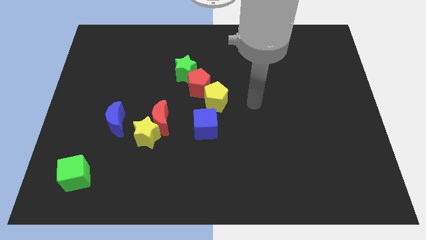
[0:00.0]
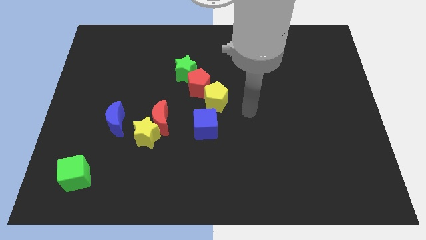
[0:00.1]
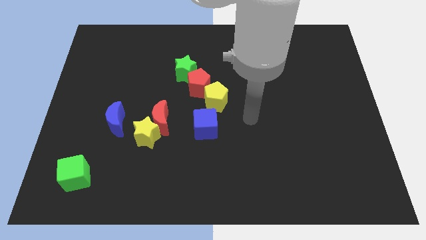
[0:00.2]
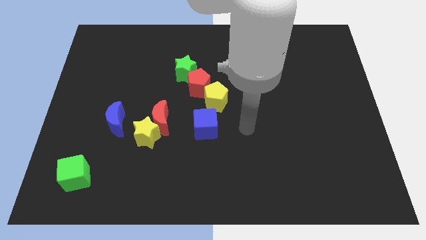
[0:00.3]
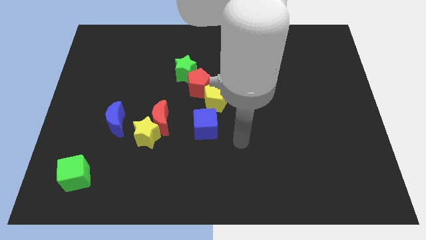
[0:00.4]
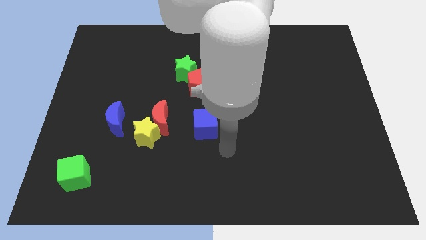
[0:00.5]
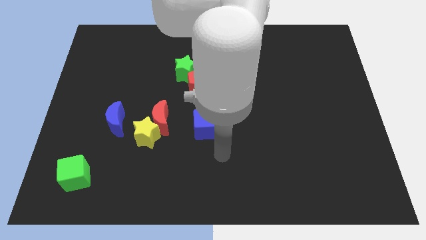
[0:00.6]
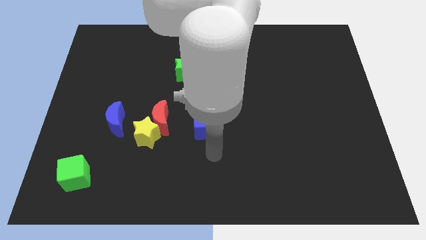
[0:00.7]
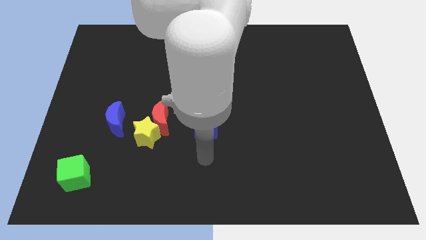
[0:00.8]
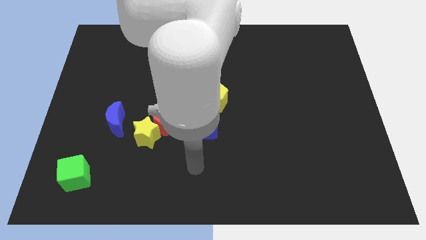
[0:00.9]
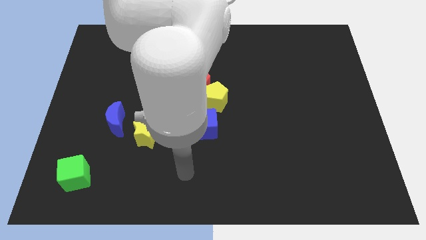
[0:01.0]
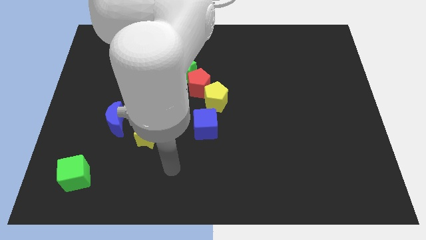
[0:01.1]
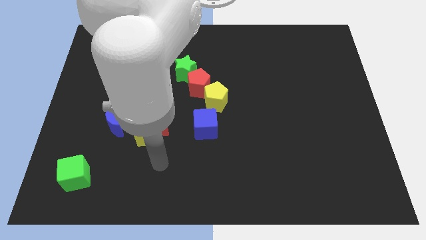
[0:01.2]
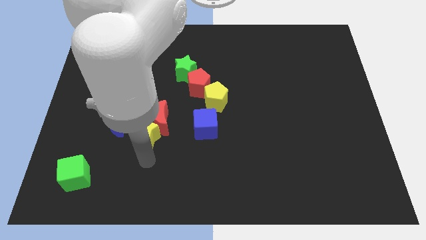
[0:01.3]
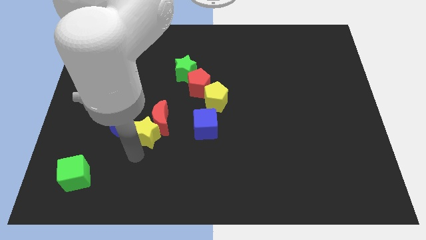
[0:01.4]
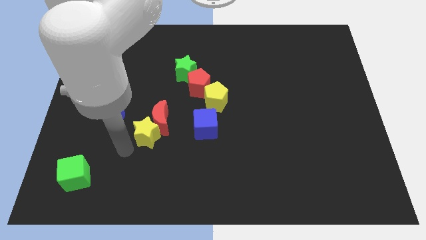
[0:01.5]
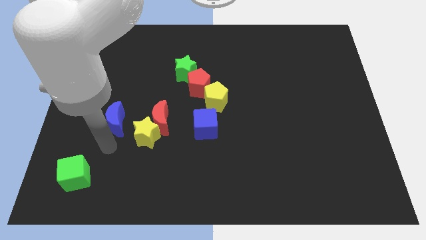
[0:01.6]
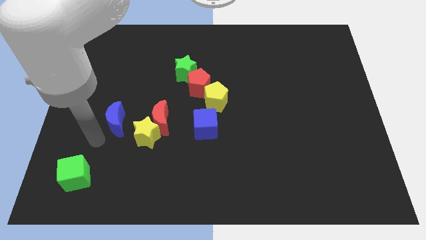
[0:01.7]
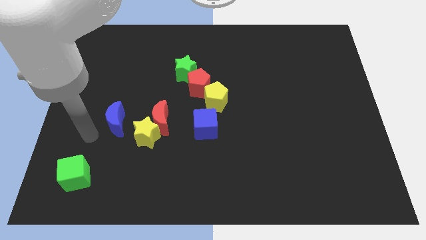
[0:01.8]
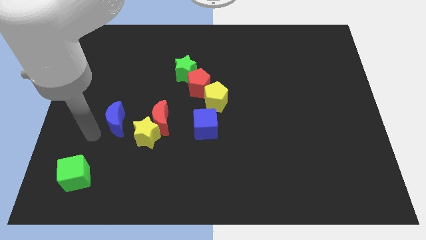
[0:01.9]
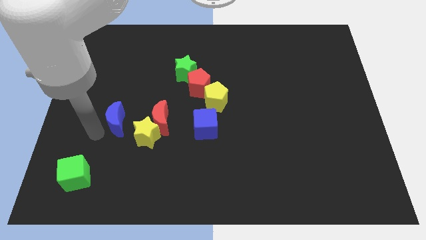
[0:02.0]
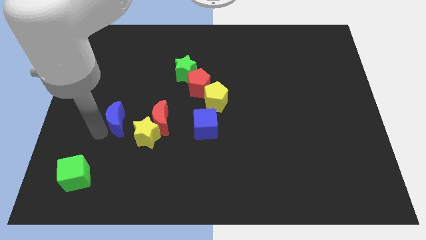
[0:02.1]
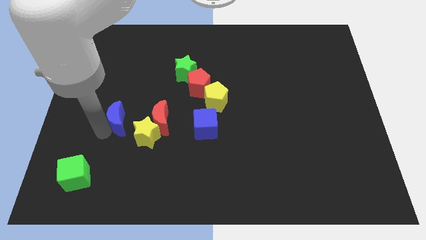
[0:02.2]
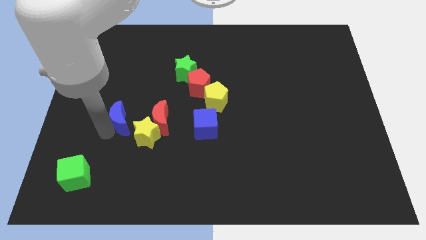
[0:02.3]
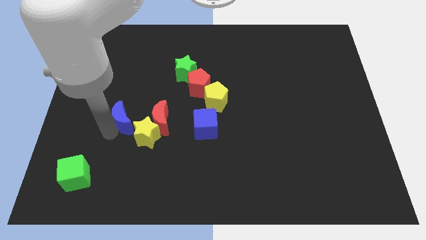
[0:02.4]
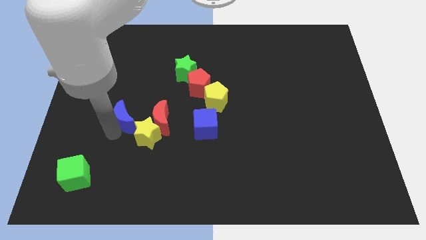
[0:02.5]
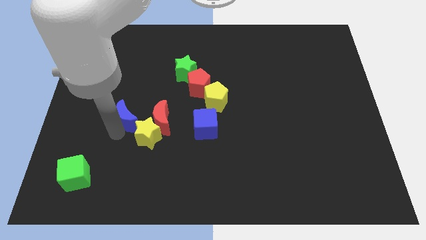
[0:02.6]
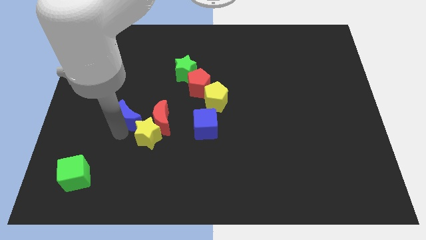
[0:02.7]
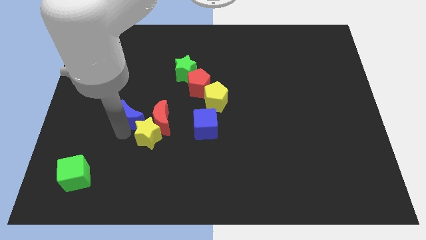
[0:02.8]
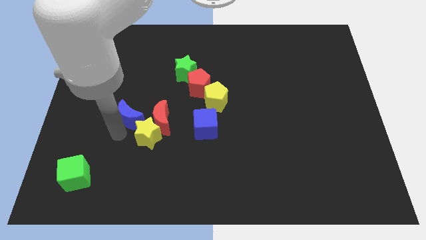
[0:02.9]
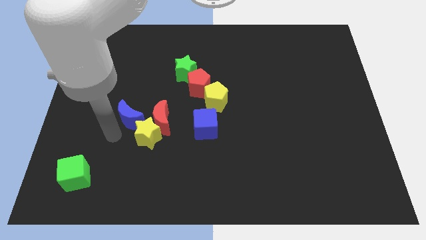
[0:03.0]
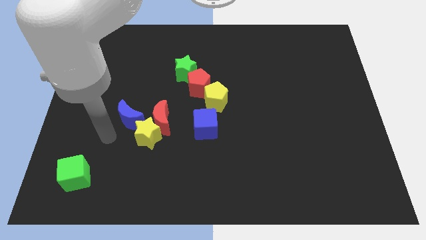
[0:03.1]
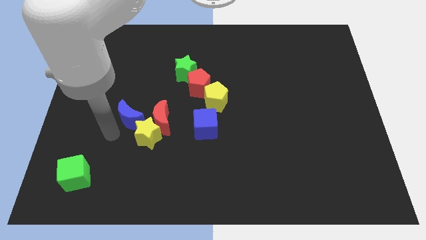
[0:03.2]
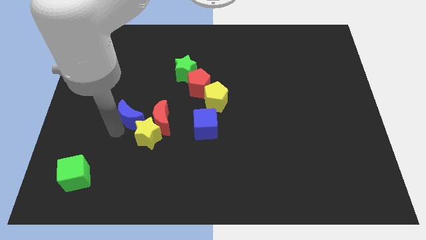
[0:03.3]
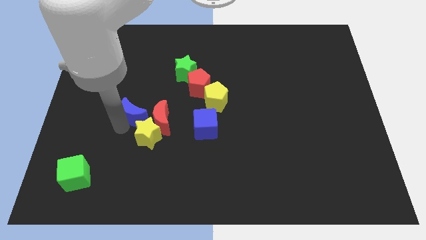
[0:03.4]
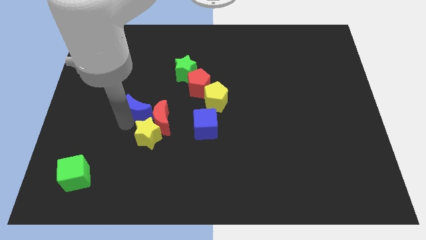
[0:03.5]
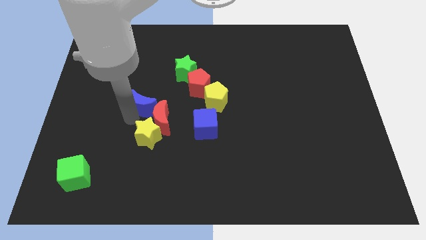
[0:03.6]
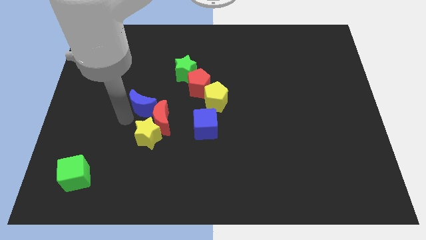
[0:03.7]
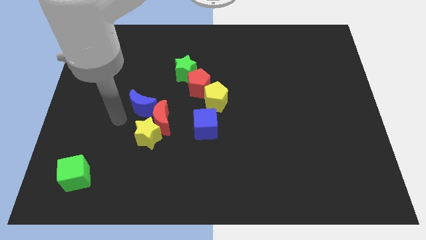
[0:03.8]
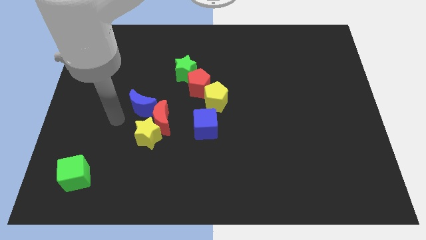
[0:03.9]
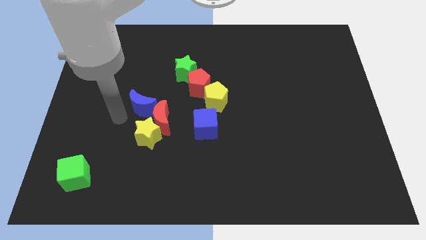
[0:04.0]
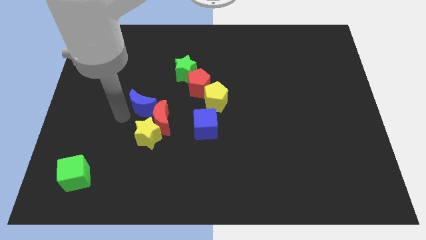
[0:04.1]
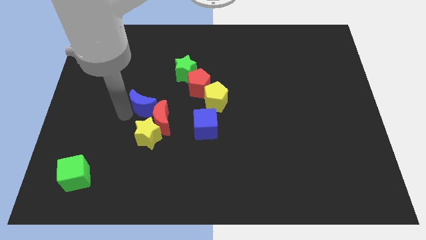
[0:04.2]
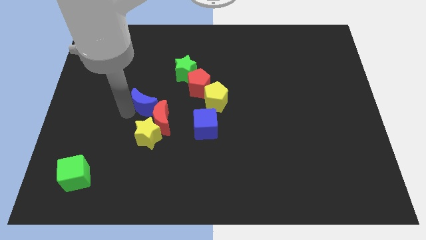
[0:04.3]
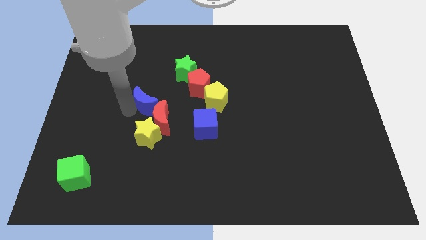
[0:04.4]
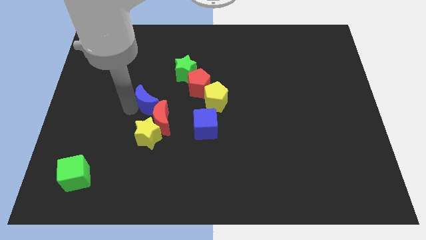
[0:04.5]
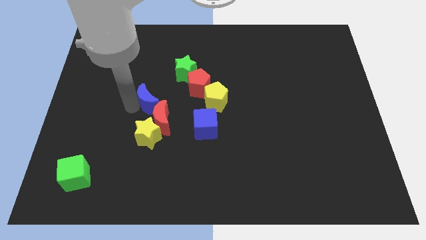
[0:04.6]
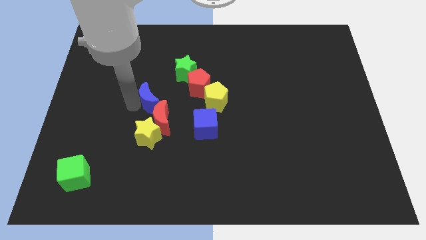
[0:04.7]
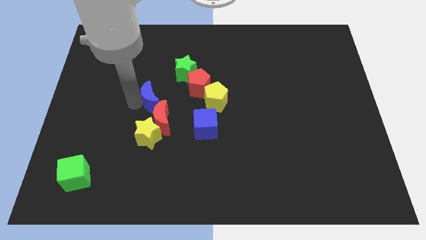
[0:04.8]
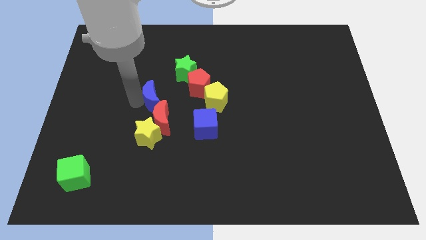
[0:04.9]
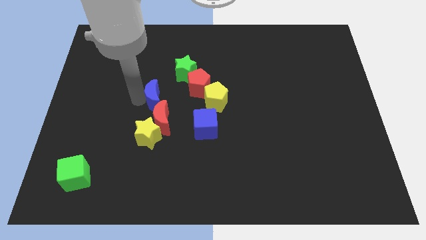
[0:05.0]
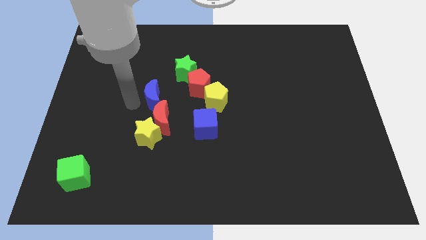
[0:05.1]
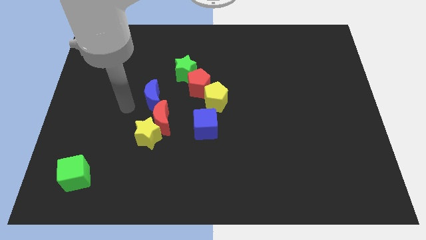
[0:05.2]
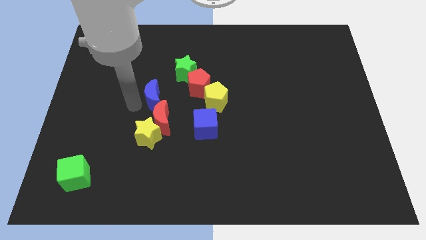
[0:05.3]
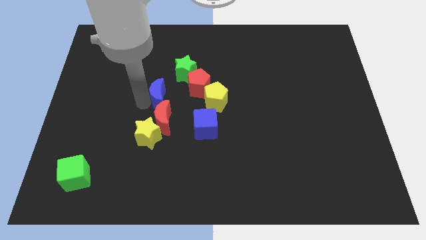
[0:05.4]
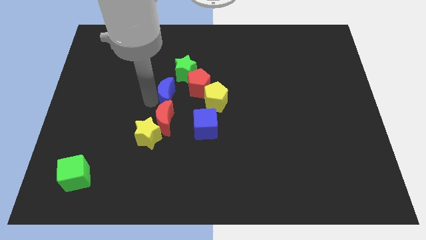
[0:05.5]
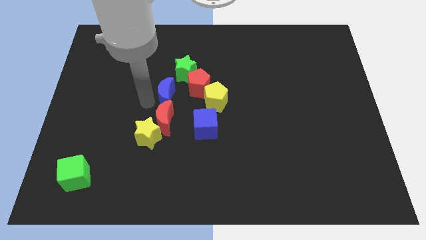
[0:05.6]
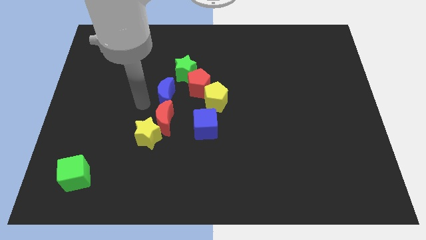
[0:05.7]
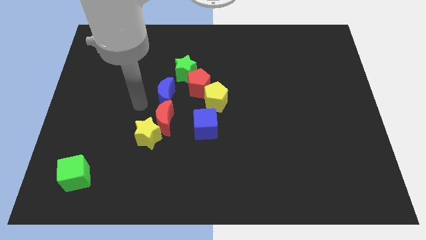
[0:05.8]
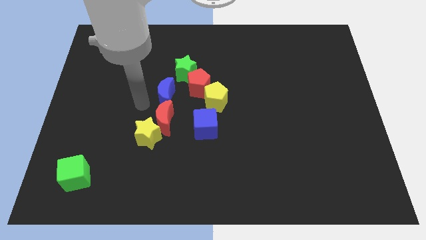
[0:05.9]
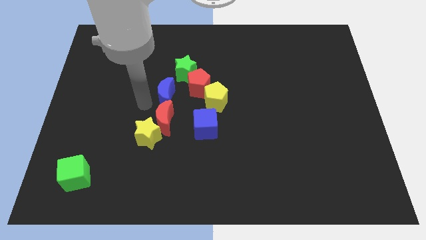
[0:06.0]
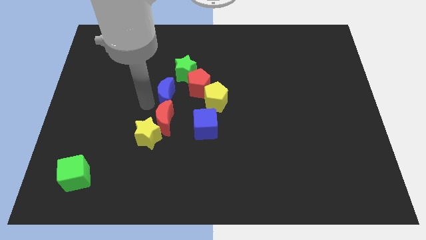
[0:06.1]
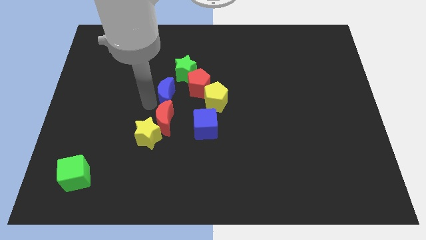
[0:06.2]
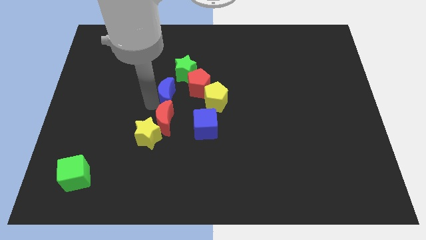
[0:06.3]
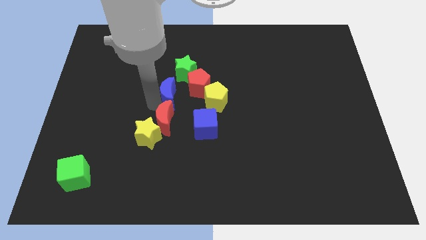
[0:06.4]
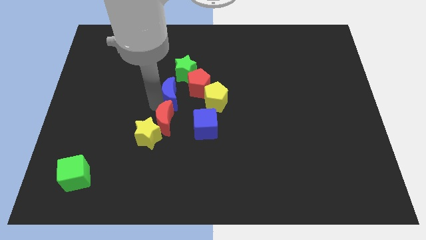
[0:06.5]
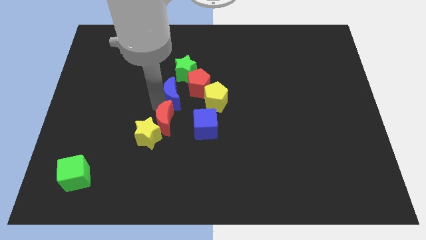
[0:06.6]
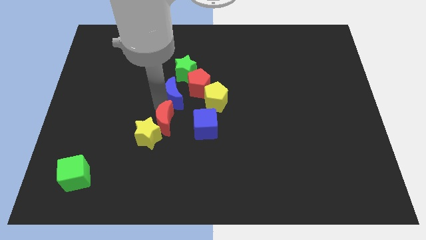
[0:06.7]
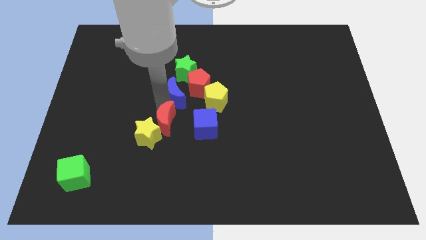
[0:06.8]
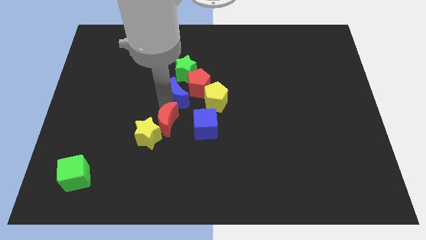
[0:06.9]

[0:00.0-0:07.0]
slide the blue moon towards the red pentagon
